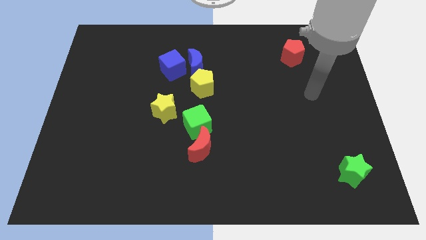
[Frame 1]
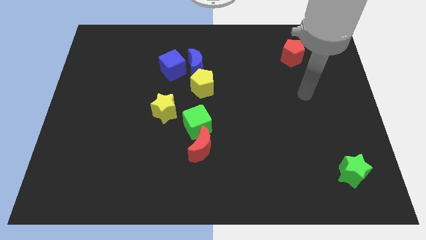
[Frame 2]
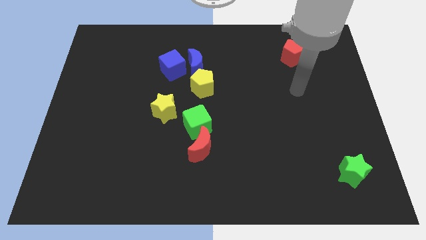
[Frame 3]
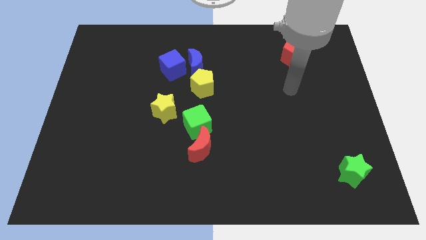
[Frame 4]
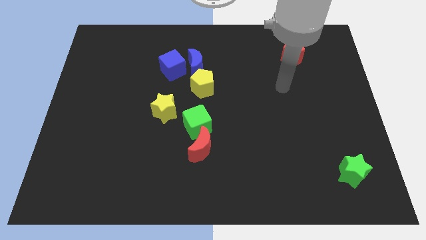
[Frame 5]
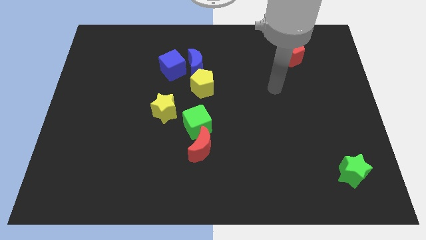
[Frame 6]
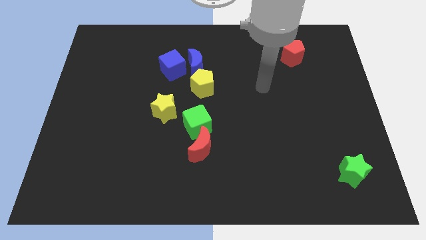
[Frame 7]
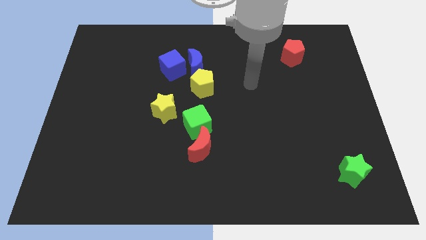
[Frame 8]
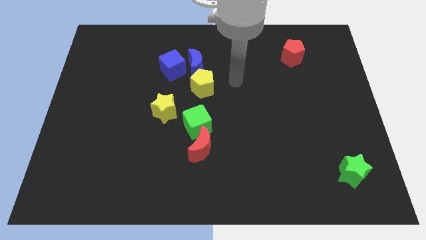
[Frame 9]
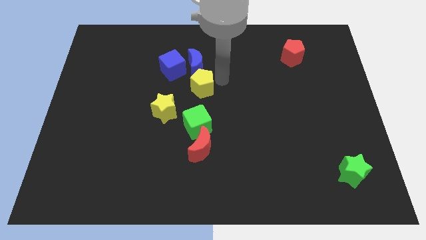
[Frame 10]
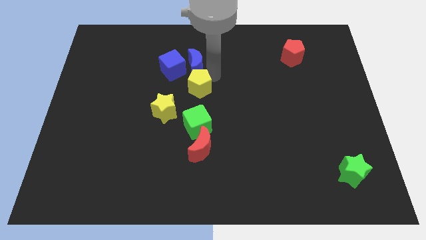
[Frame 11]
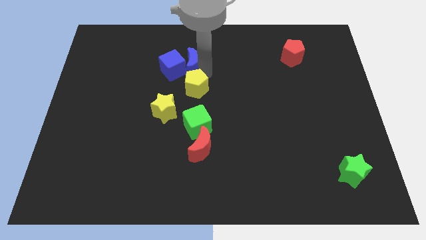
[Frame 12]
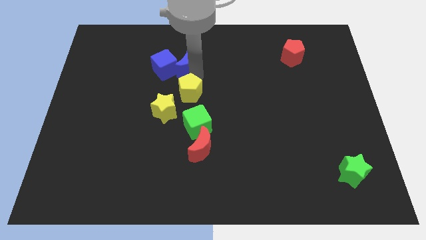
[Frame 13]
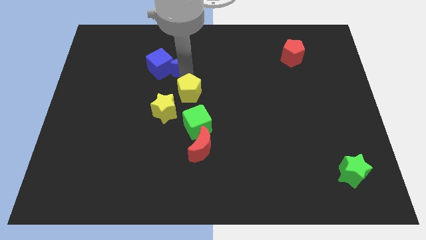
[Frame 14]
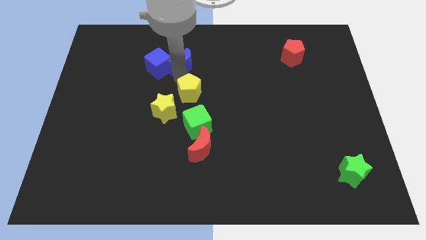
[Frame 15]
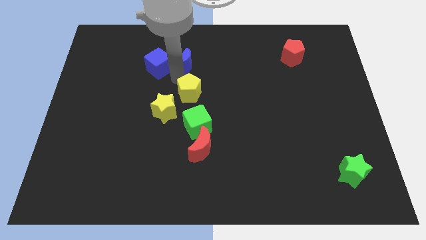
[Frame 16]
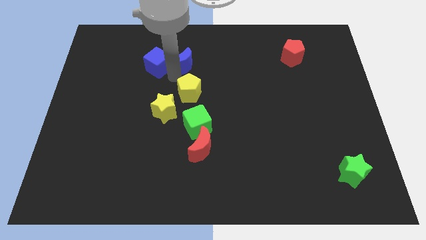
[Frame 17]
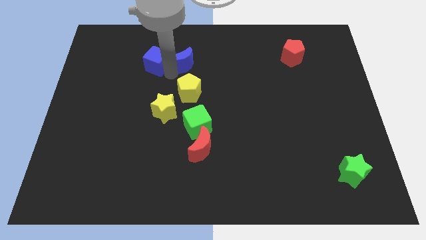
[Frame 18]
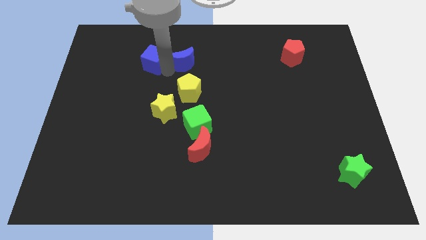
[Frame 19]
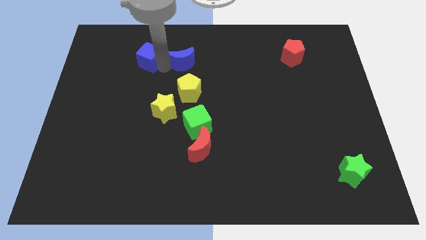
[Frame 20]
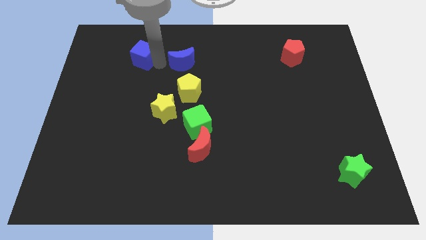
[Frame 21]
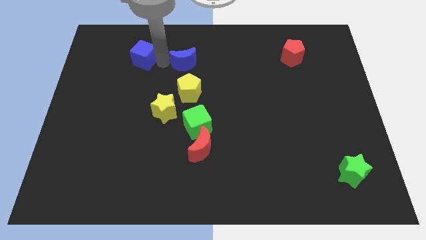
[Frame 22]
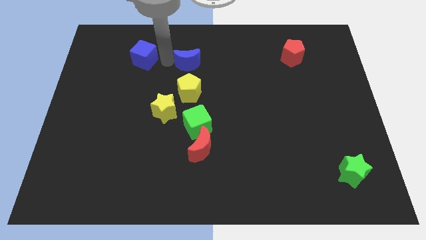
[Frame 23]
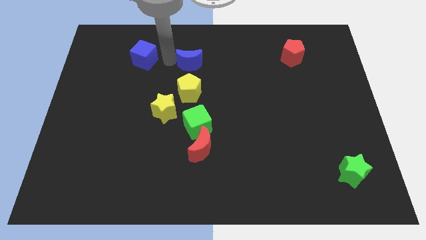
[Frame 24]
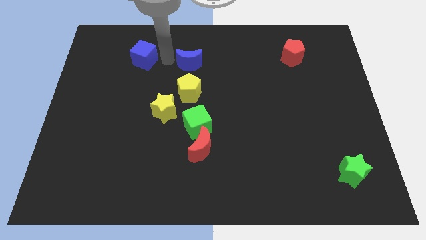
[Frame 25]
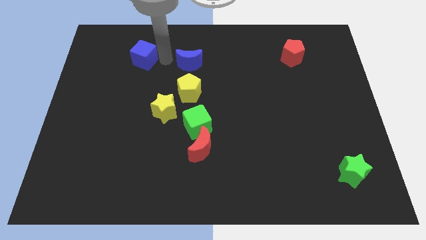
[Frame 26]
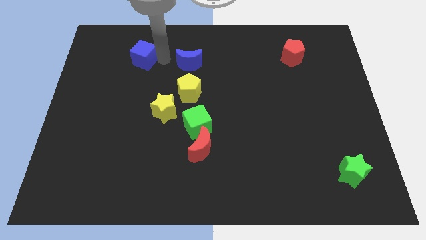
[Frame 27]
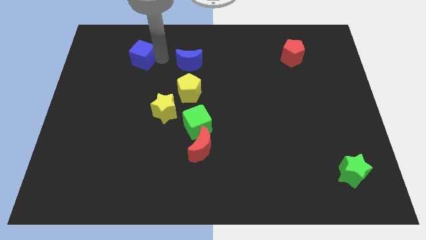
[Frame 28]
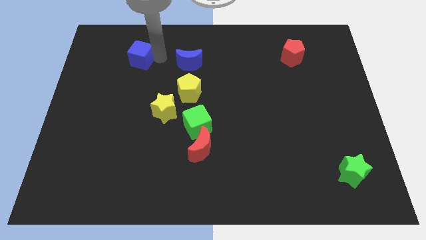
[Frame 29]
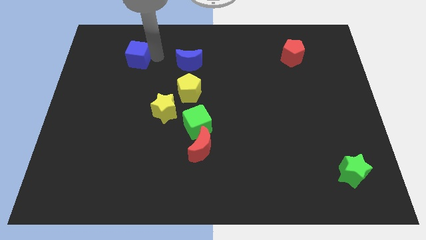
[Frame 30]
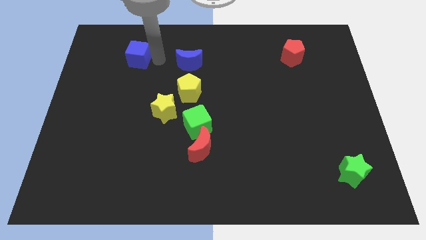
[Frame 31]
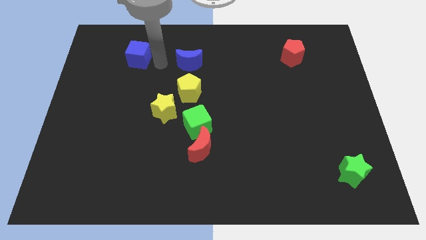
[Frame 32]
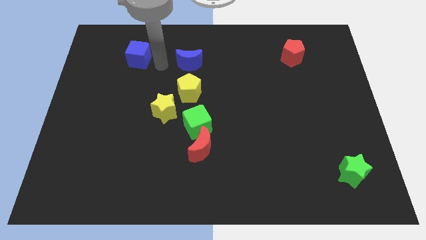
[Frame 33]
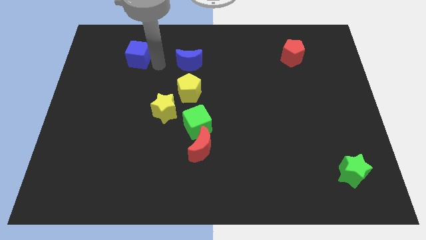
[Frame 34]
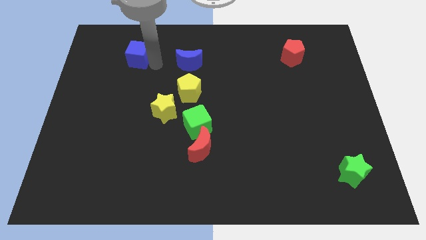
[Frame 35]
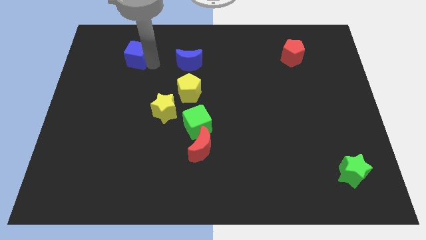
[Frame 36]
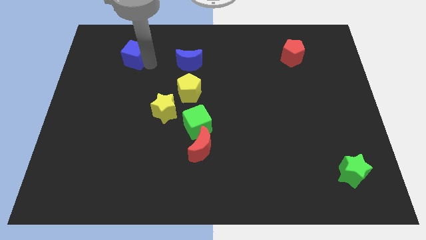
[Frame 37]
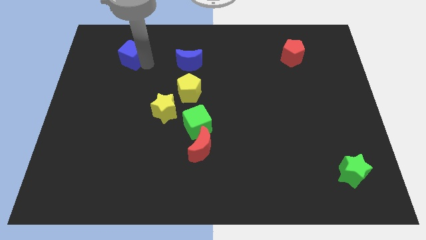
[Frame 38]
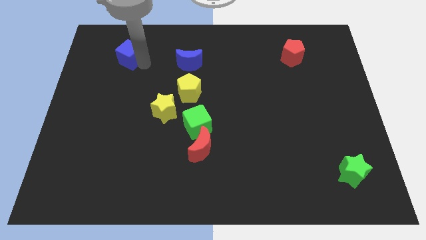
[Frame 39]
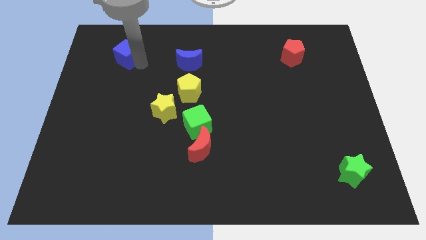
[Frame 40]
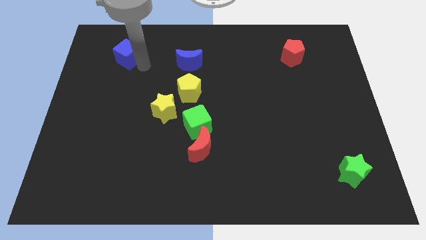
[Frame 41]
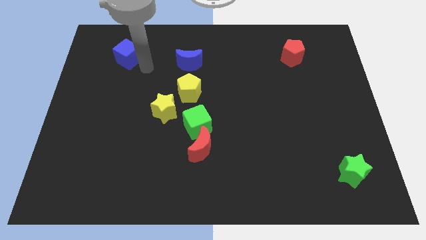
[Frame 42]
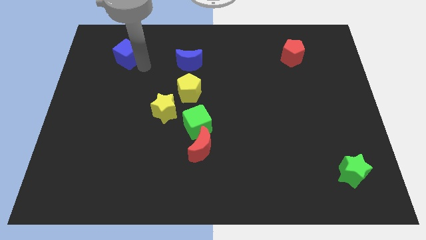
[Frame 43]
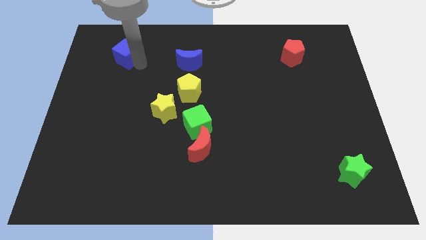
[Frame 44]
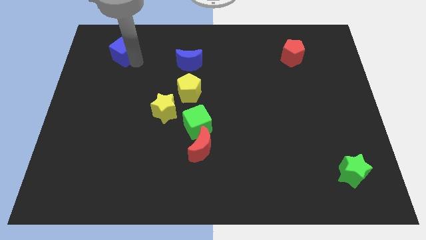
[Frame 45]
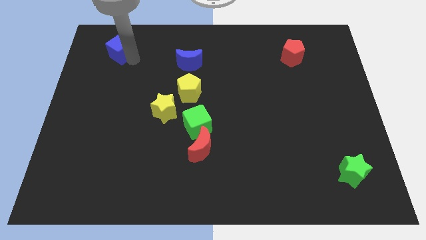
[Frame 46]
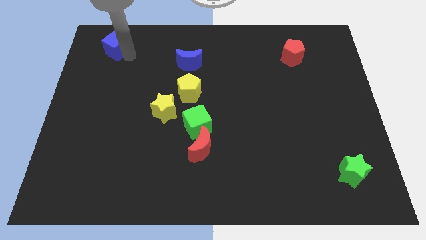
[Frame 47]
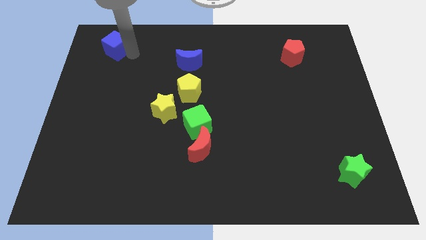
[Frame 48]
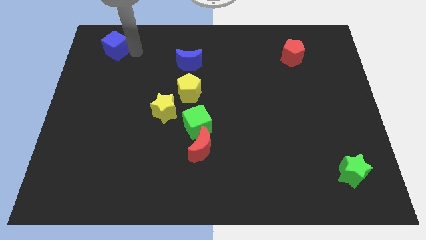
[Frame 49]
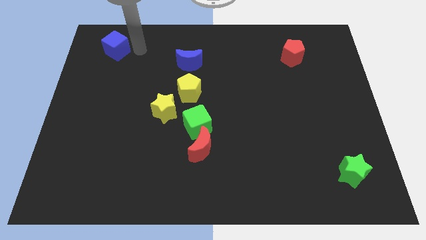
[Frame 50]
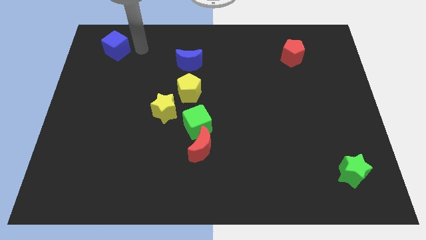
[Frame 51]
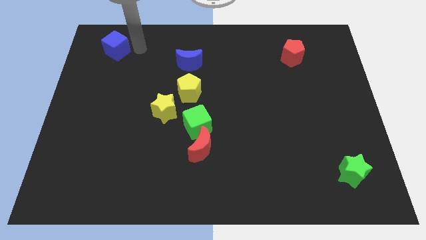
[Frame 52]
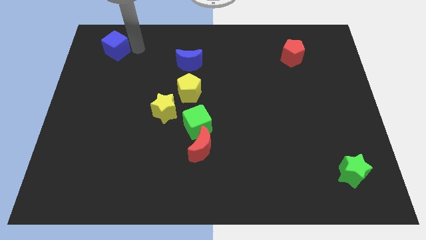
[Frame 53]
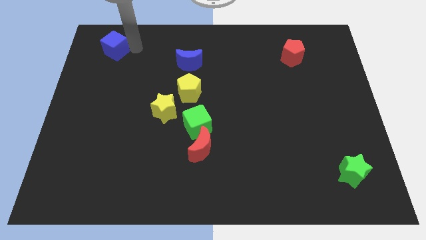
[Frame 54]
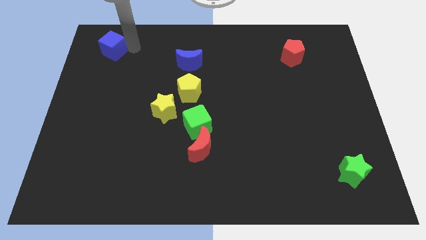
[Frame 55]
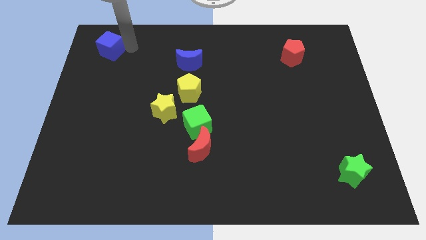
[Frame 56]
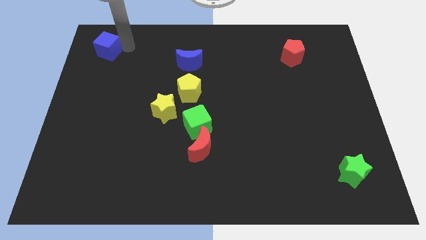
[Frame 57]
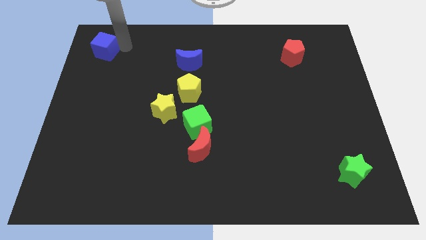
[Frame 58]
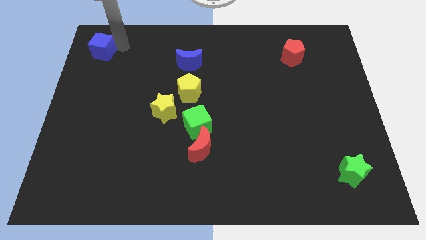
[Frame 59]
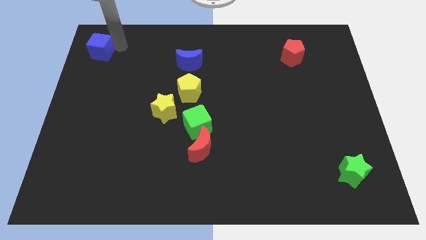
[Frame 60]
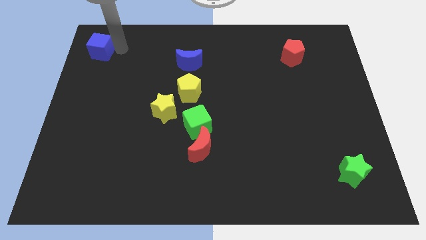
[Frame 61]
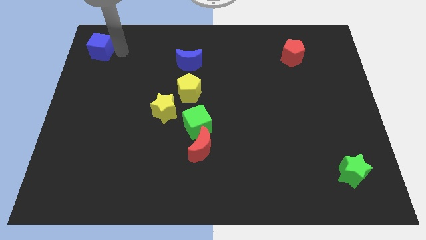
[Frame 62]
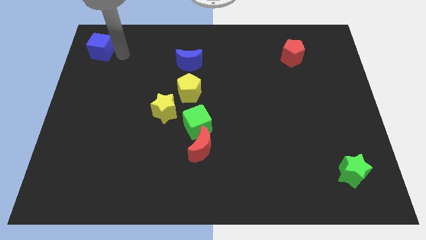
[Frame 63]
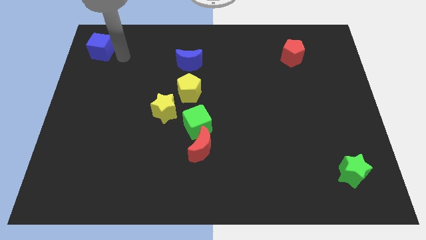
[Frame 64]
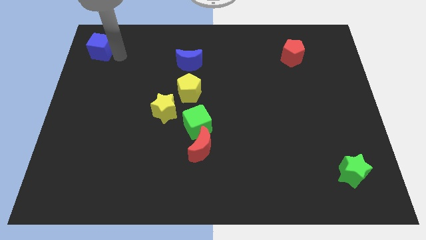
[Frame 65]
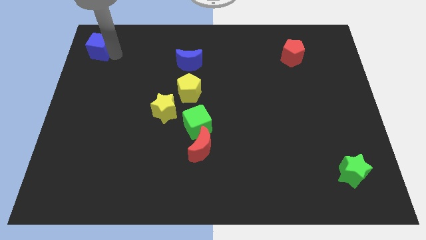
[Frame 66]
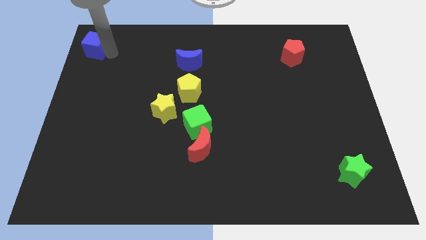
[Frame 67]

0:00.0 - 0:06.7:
put the blue cube to the top left
